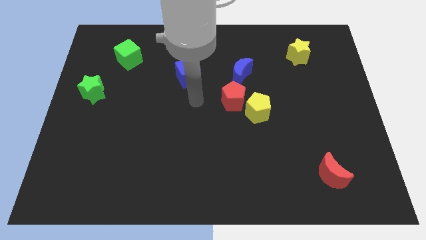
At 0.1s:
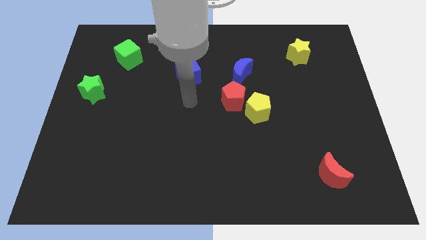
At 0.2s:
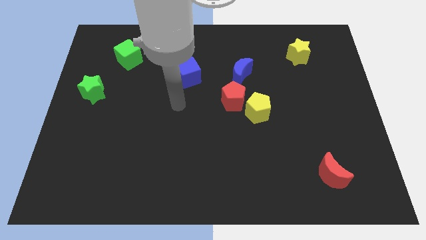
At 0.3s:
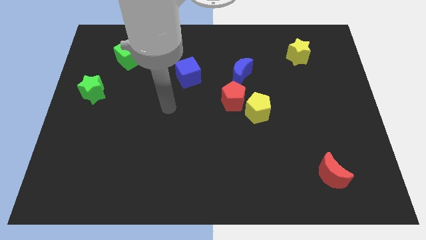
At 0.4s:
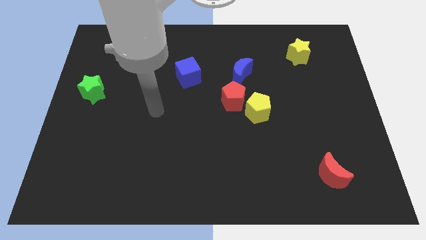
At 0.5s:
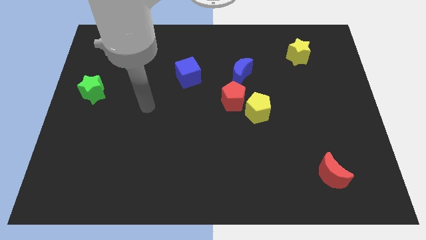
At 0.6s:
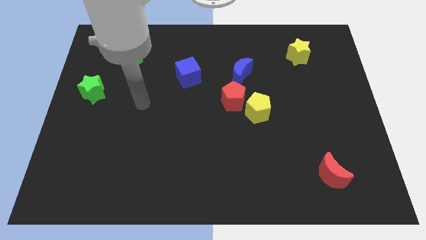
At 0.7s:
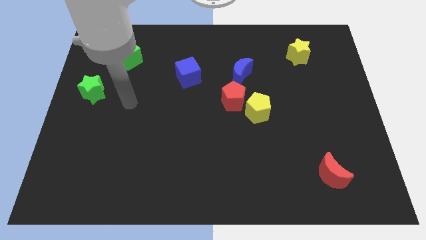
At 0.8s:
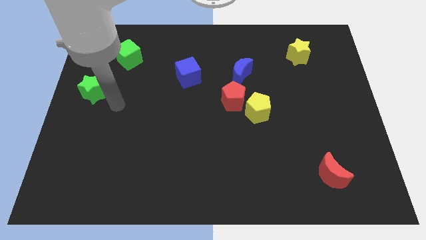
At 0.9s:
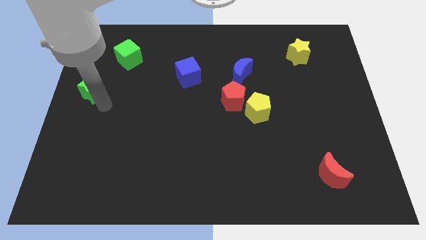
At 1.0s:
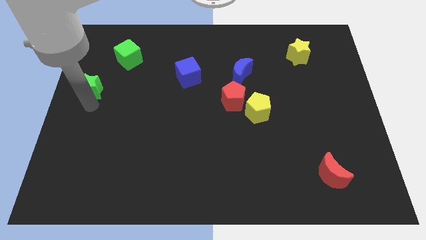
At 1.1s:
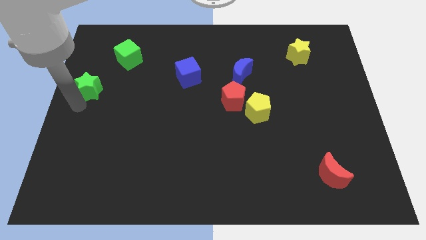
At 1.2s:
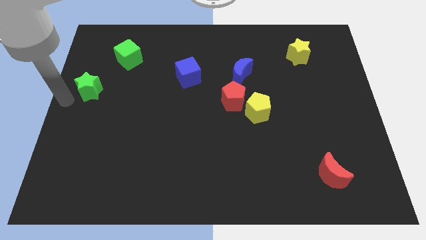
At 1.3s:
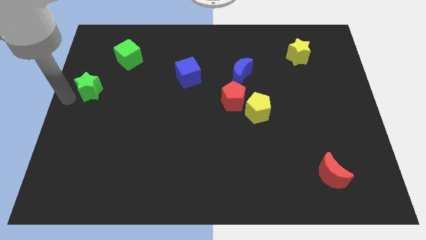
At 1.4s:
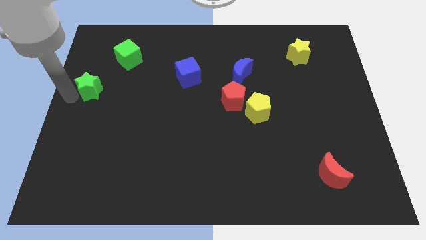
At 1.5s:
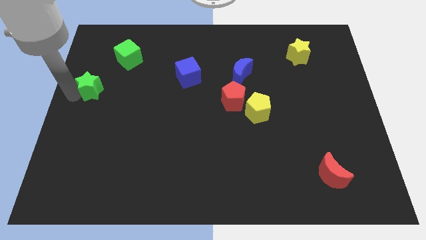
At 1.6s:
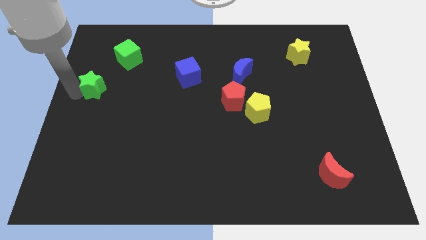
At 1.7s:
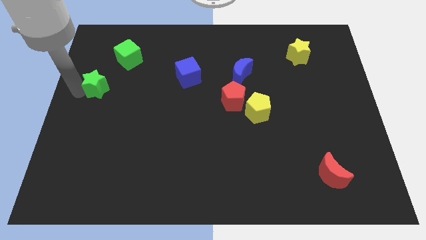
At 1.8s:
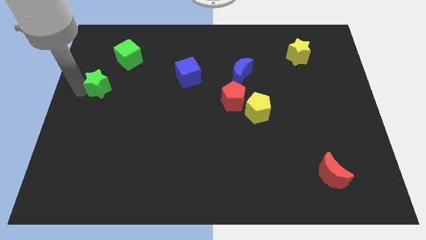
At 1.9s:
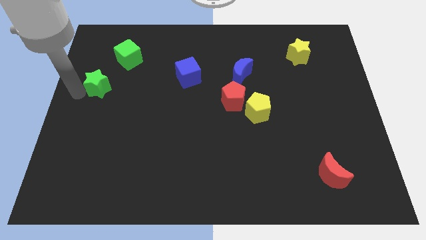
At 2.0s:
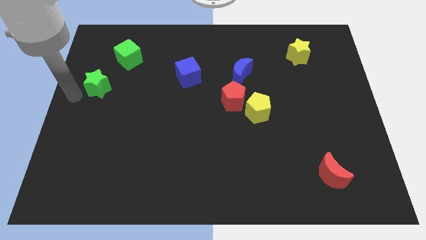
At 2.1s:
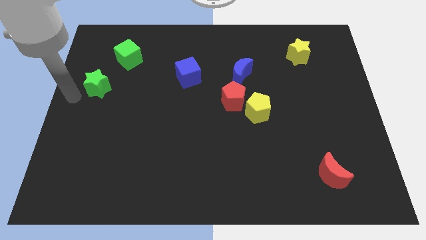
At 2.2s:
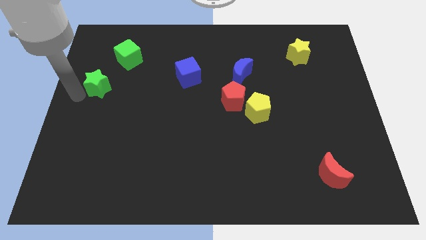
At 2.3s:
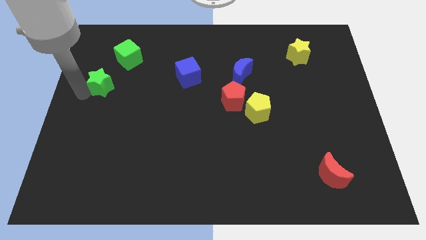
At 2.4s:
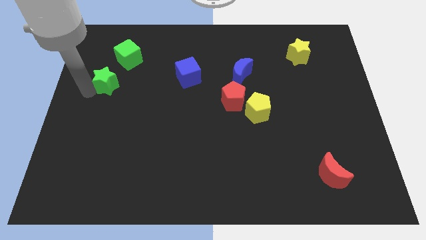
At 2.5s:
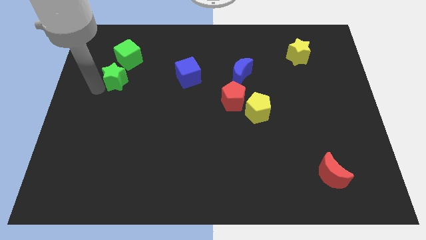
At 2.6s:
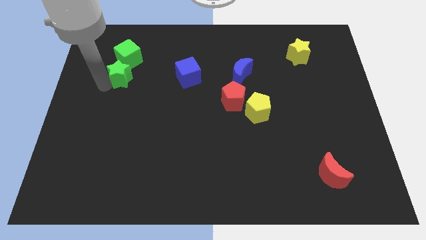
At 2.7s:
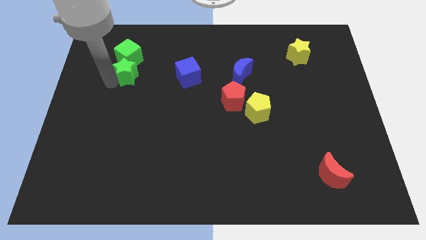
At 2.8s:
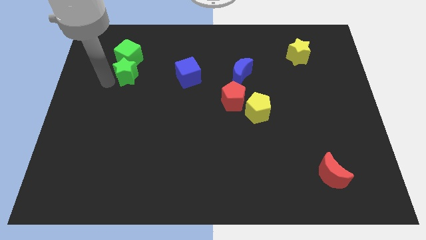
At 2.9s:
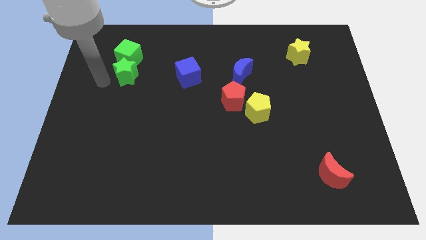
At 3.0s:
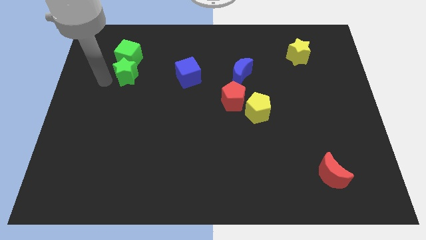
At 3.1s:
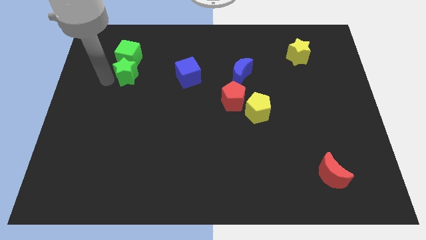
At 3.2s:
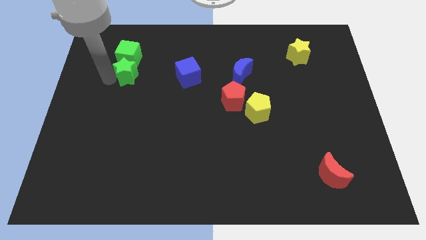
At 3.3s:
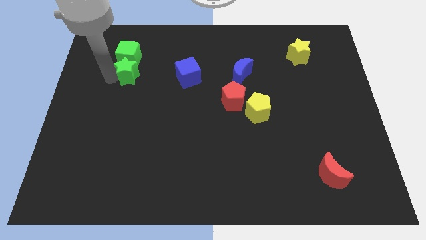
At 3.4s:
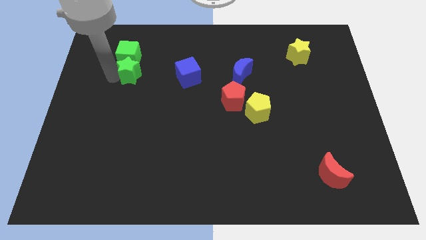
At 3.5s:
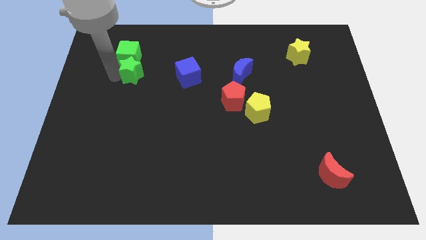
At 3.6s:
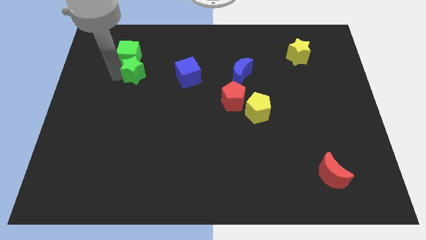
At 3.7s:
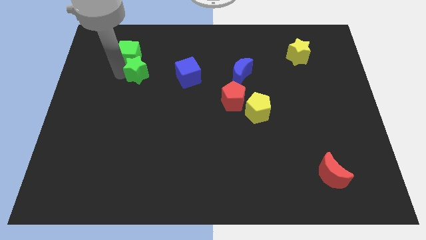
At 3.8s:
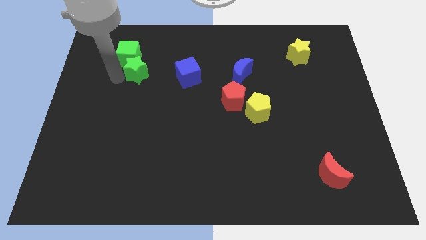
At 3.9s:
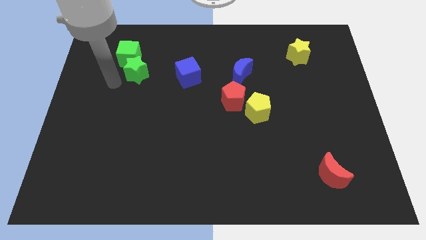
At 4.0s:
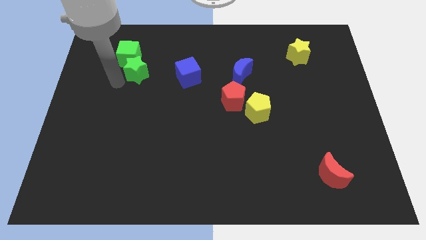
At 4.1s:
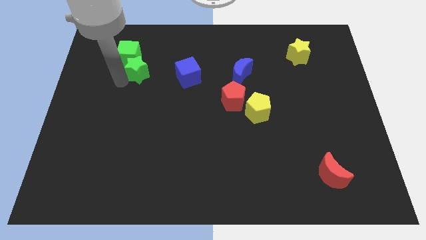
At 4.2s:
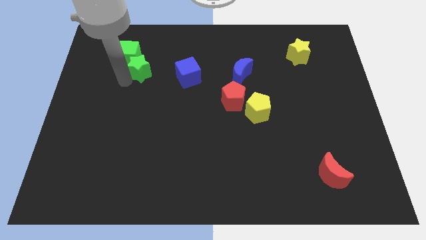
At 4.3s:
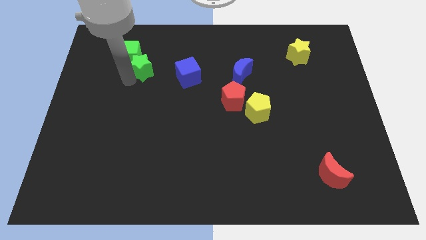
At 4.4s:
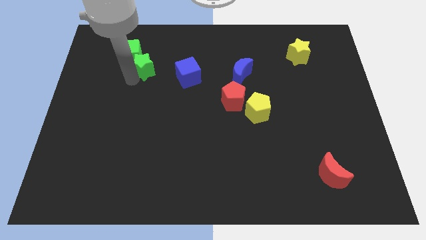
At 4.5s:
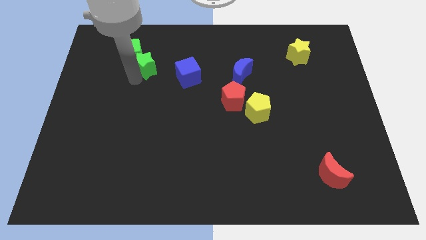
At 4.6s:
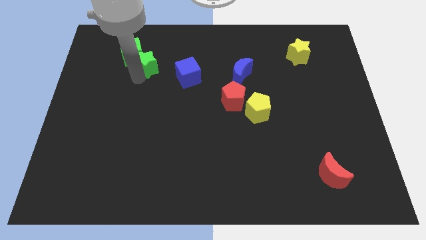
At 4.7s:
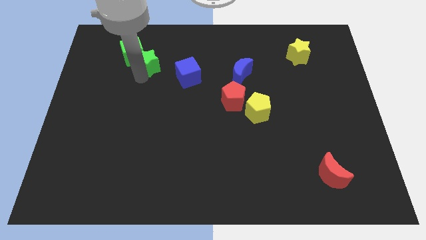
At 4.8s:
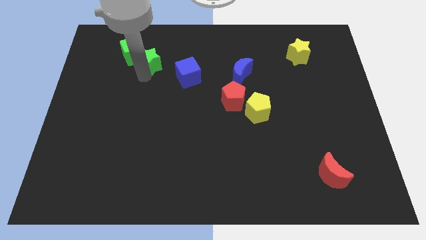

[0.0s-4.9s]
push the green star diagonally up and to the left of the blue cube

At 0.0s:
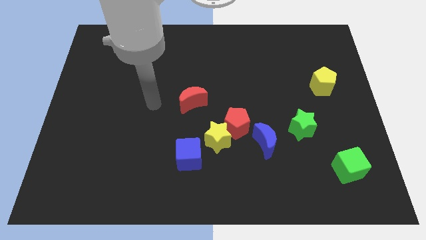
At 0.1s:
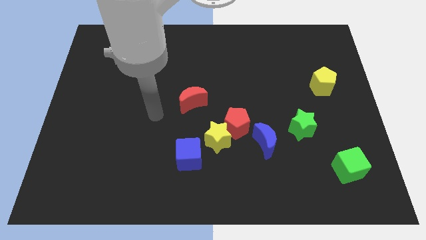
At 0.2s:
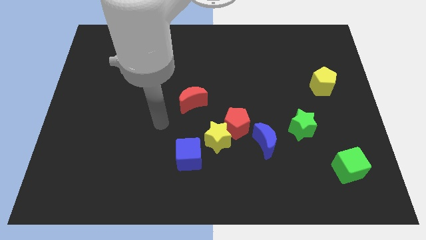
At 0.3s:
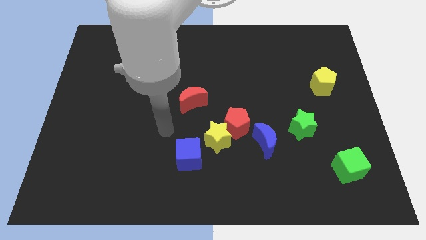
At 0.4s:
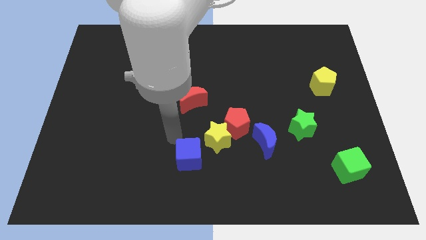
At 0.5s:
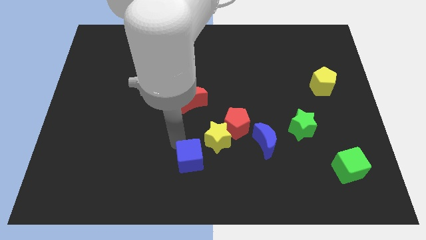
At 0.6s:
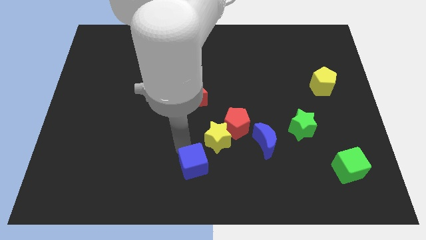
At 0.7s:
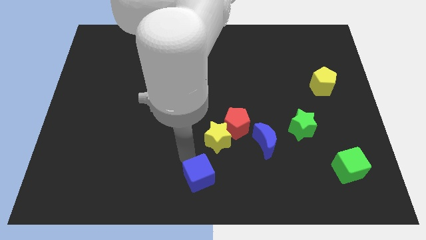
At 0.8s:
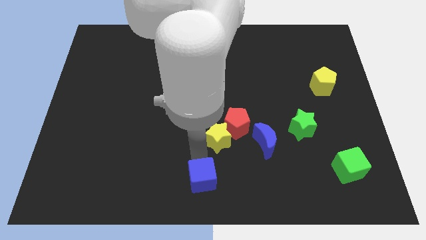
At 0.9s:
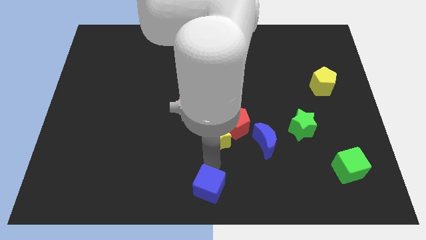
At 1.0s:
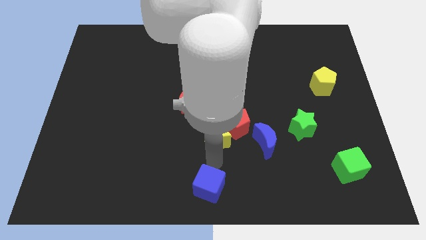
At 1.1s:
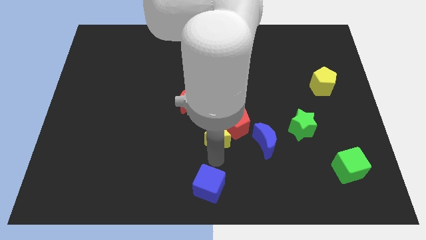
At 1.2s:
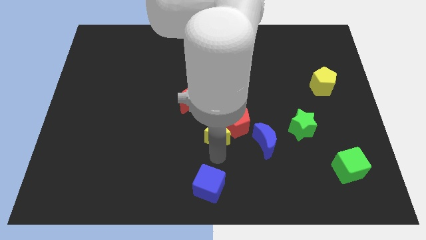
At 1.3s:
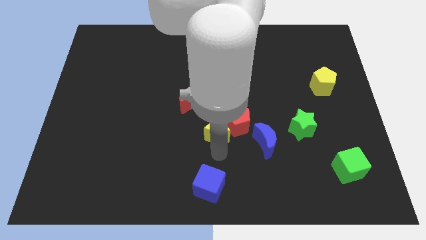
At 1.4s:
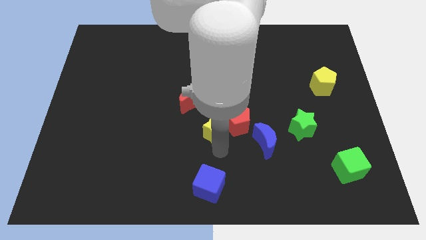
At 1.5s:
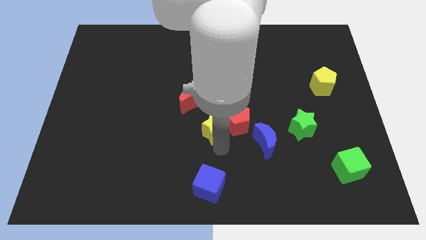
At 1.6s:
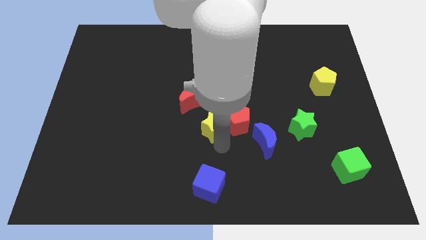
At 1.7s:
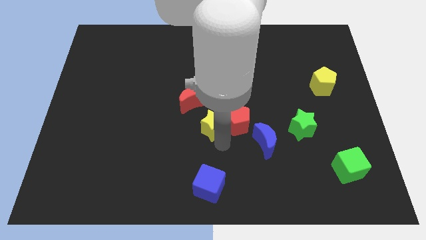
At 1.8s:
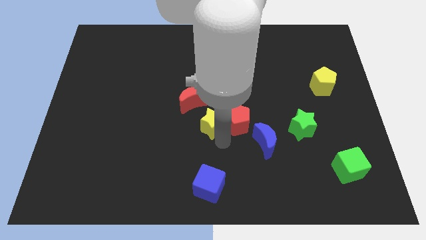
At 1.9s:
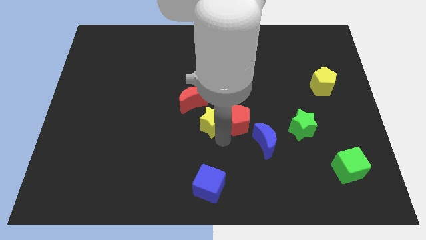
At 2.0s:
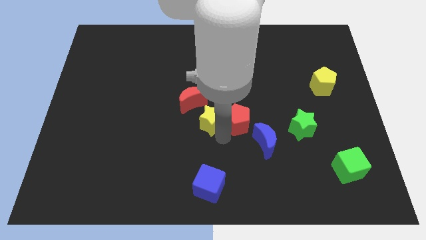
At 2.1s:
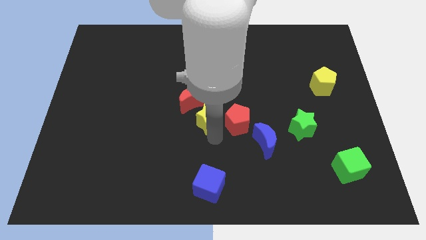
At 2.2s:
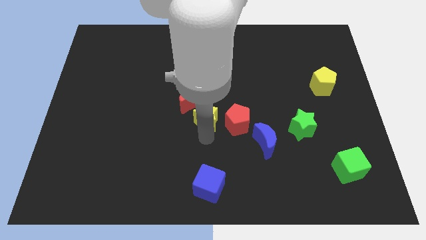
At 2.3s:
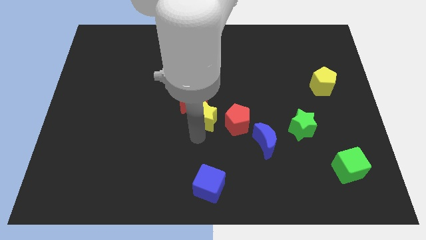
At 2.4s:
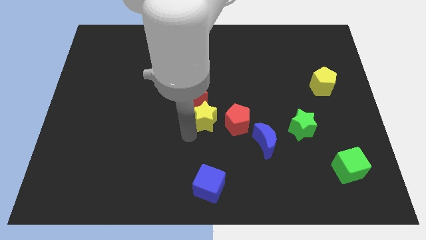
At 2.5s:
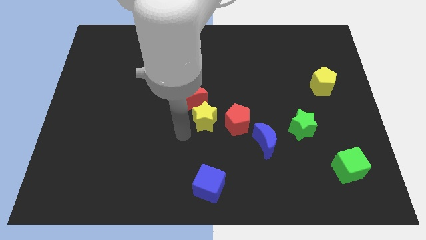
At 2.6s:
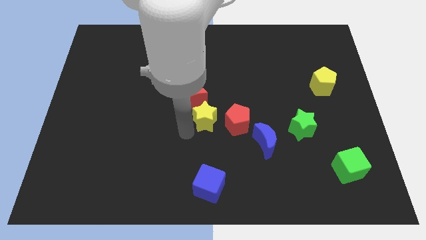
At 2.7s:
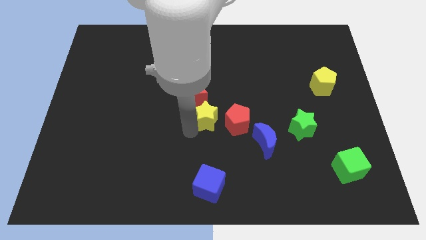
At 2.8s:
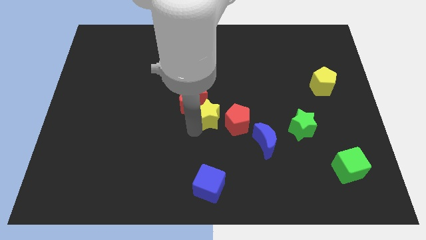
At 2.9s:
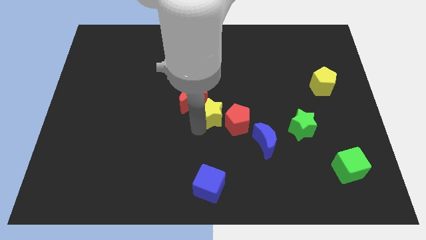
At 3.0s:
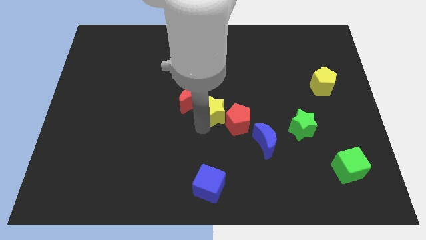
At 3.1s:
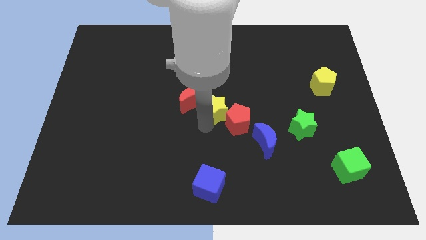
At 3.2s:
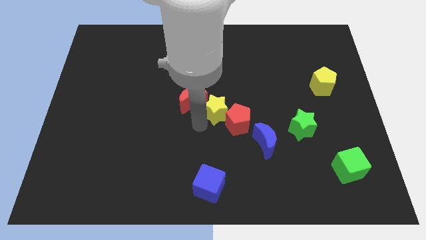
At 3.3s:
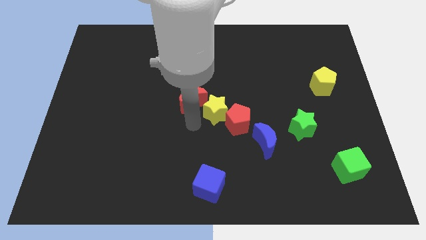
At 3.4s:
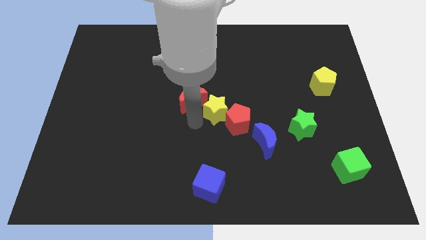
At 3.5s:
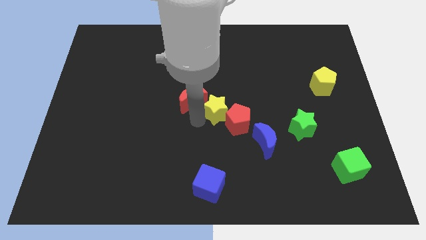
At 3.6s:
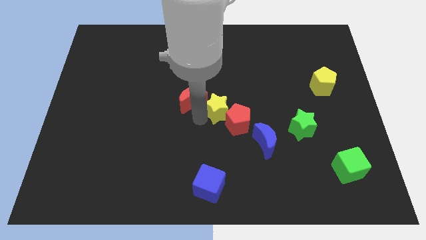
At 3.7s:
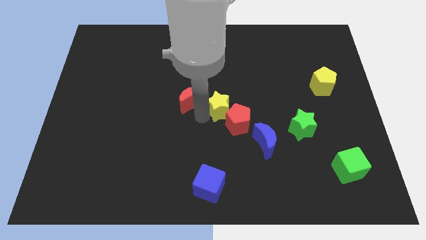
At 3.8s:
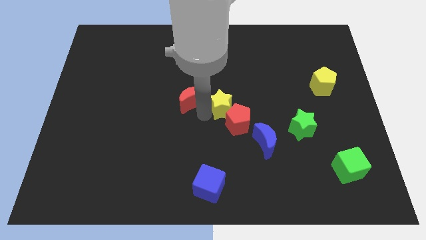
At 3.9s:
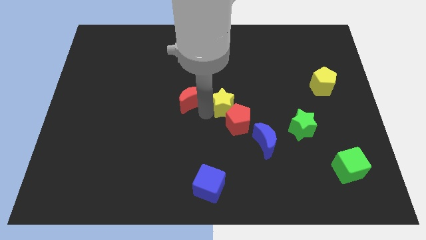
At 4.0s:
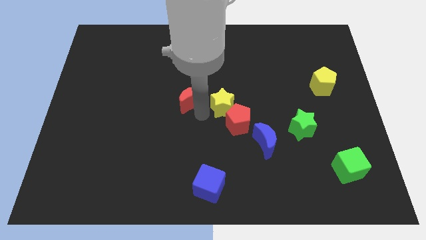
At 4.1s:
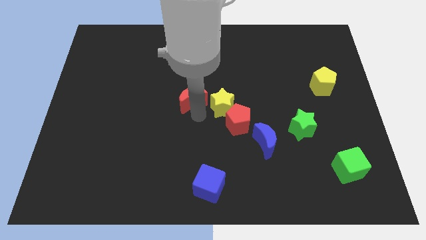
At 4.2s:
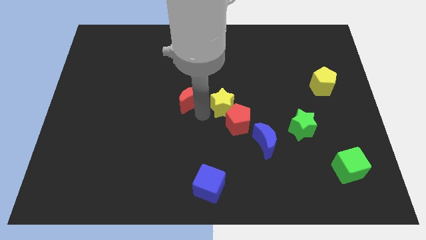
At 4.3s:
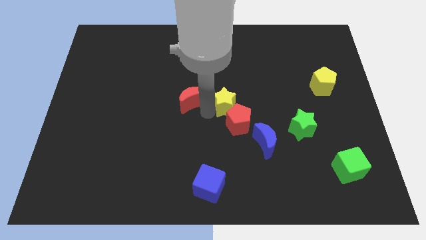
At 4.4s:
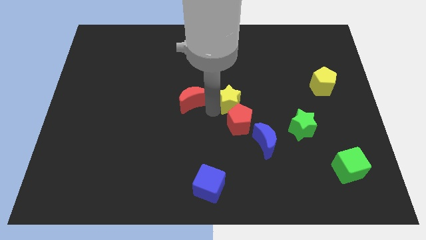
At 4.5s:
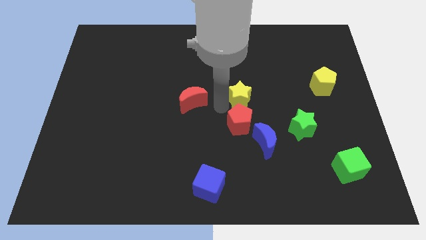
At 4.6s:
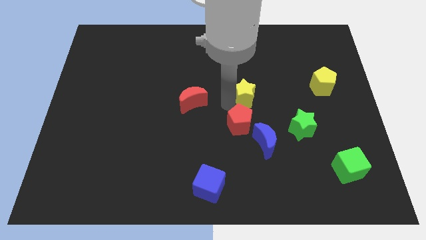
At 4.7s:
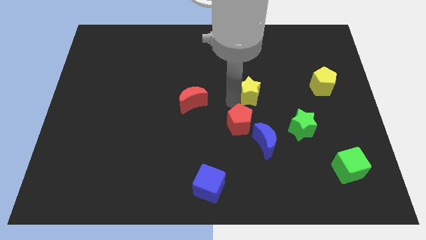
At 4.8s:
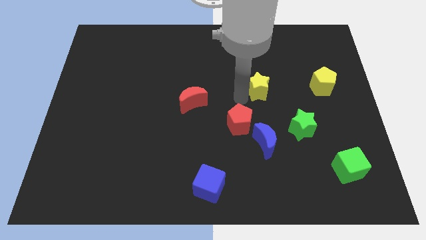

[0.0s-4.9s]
push the yellow star just left of the yellow pentagon
